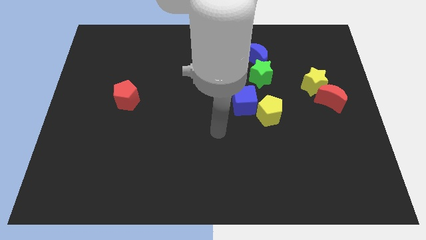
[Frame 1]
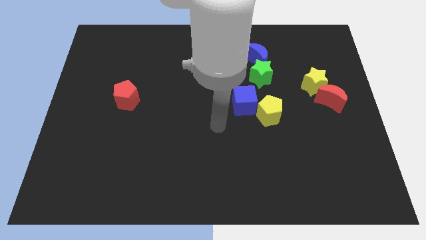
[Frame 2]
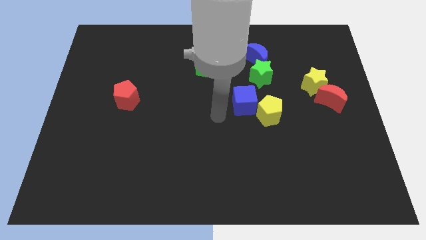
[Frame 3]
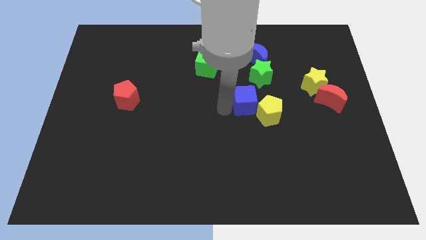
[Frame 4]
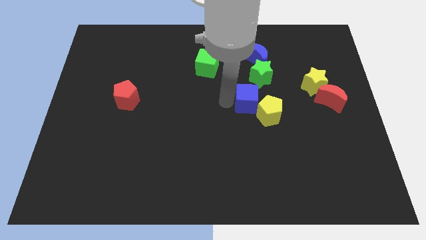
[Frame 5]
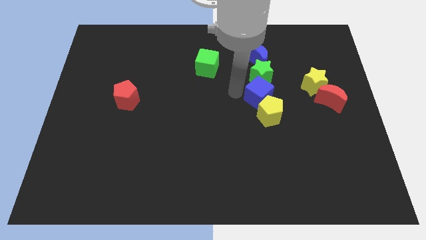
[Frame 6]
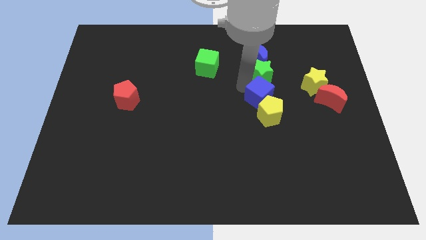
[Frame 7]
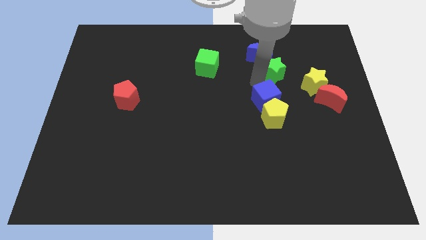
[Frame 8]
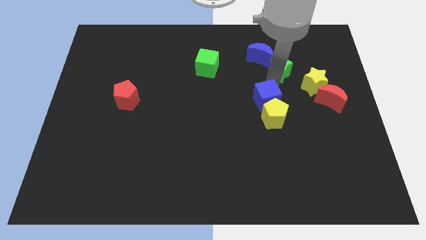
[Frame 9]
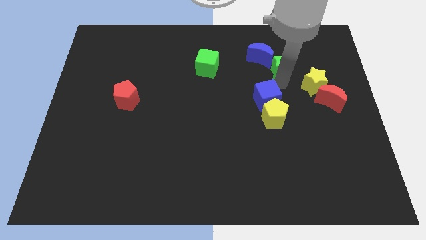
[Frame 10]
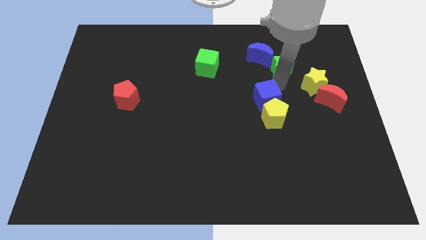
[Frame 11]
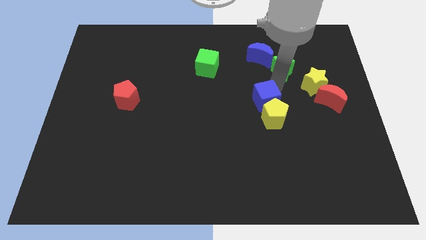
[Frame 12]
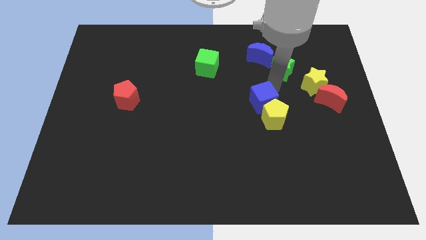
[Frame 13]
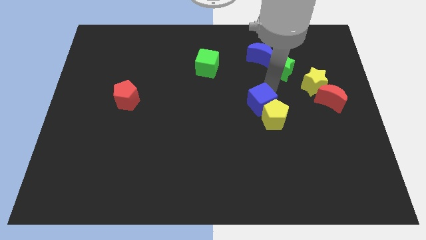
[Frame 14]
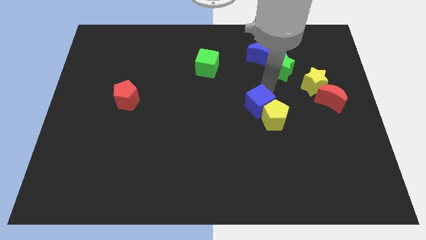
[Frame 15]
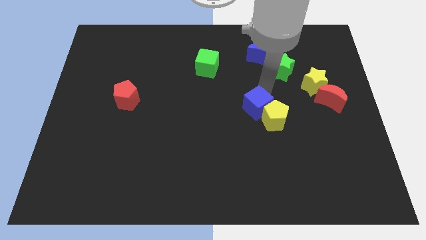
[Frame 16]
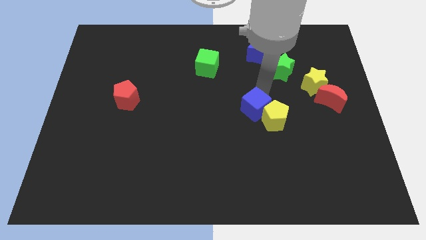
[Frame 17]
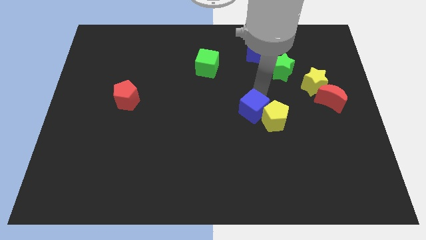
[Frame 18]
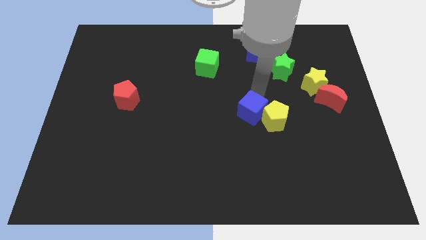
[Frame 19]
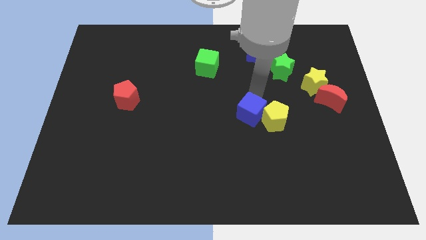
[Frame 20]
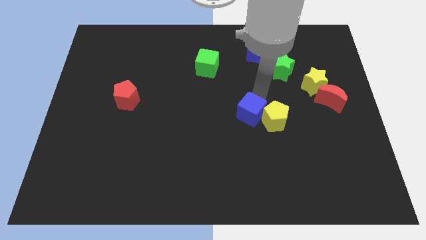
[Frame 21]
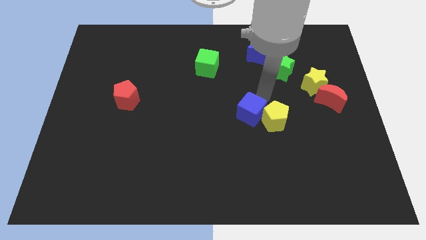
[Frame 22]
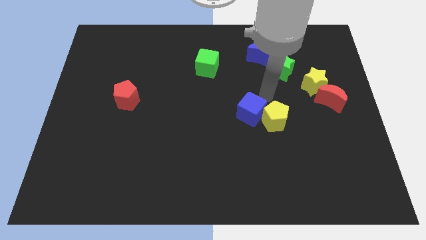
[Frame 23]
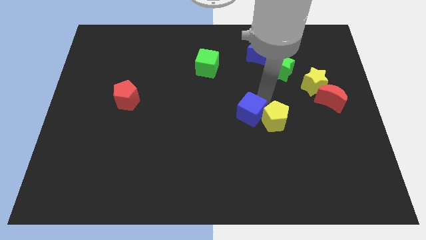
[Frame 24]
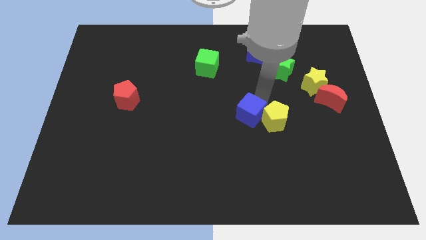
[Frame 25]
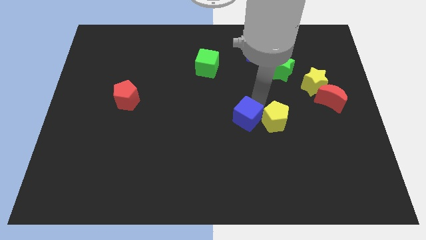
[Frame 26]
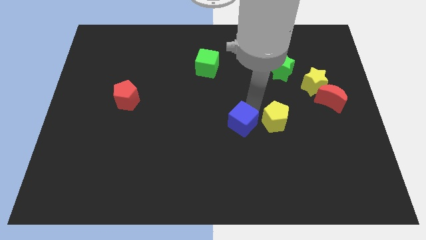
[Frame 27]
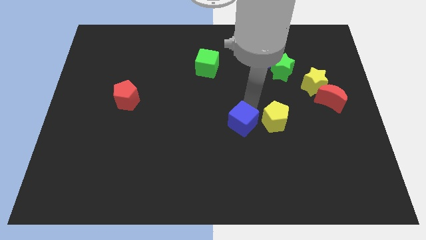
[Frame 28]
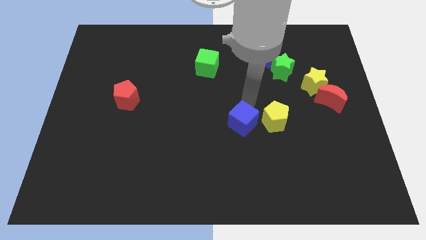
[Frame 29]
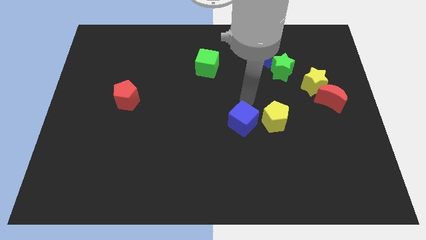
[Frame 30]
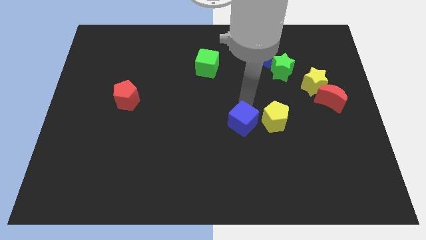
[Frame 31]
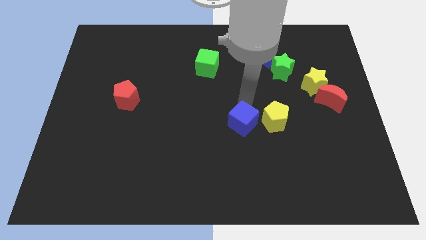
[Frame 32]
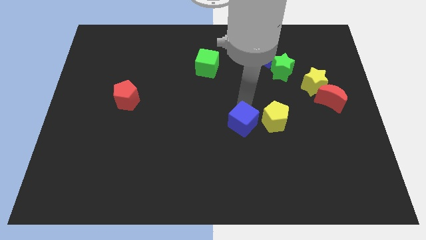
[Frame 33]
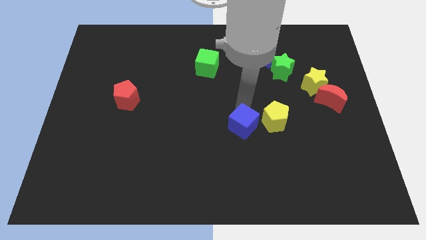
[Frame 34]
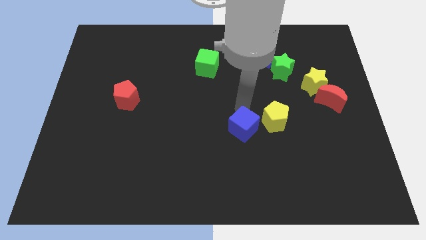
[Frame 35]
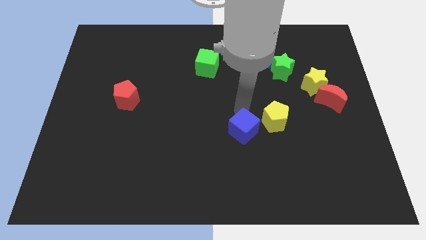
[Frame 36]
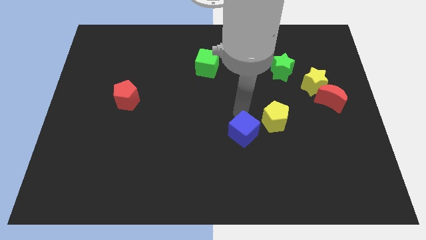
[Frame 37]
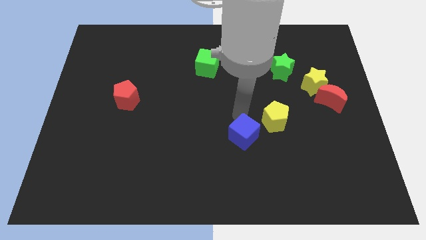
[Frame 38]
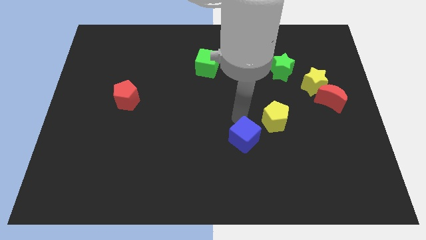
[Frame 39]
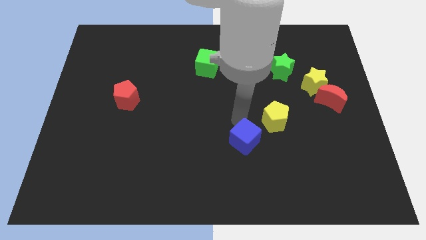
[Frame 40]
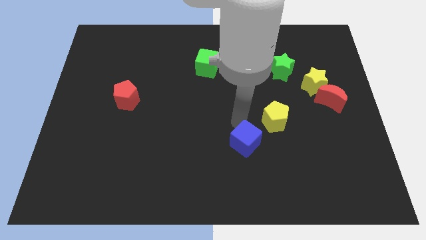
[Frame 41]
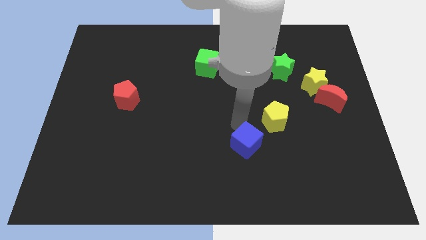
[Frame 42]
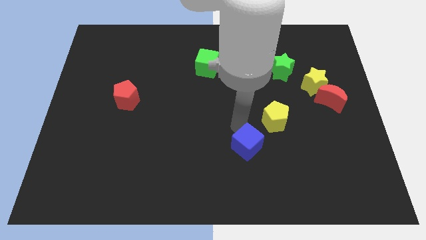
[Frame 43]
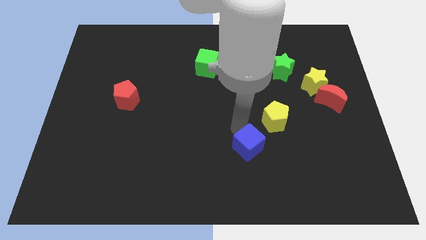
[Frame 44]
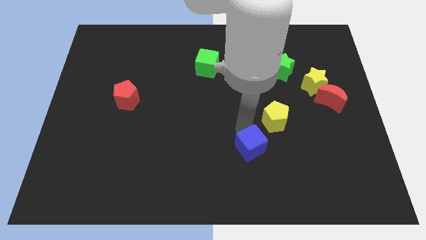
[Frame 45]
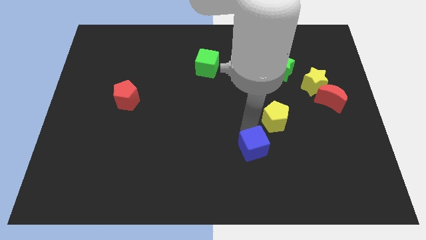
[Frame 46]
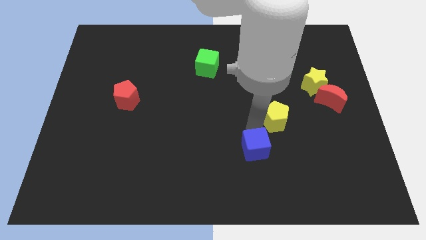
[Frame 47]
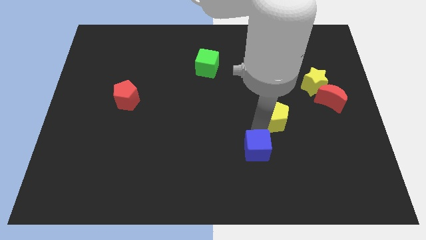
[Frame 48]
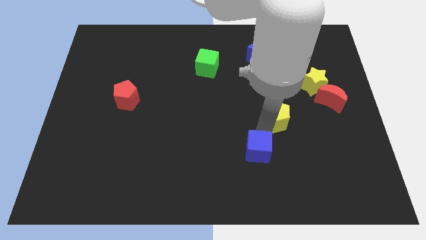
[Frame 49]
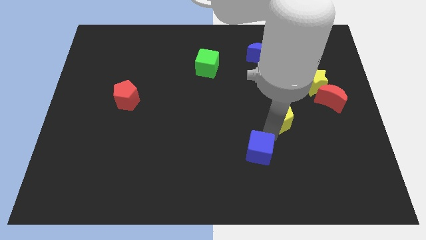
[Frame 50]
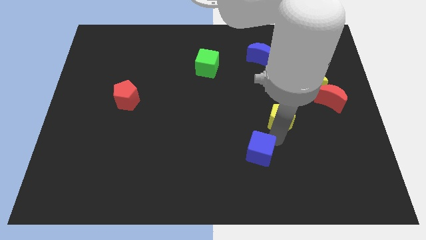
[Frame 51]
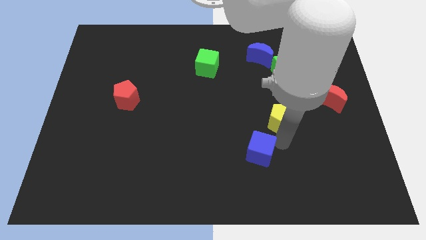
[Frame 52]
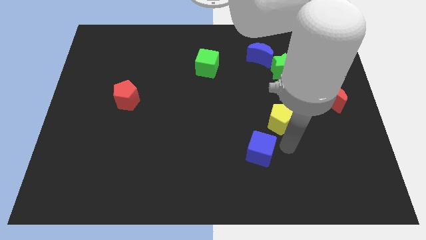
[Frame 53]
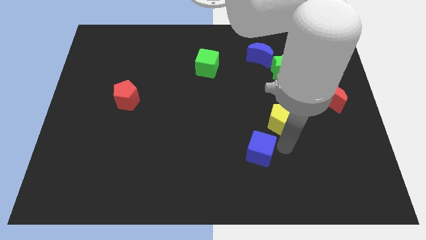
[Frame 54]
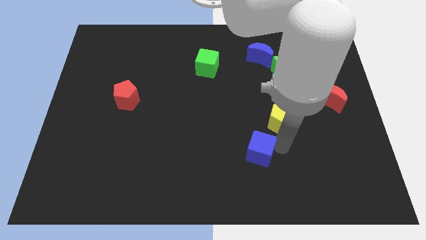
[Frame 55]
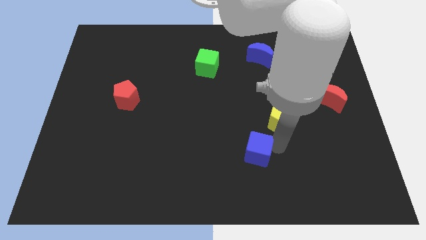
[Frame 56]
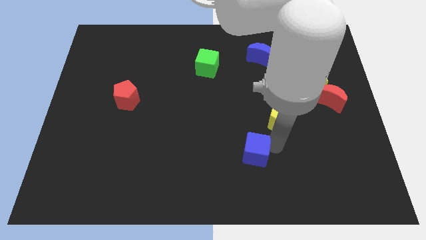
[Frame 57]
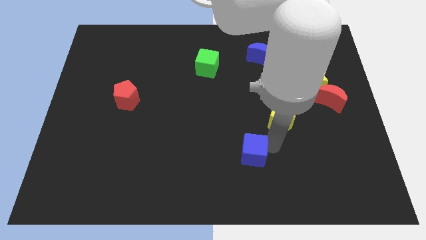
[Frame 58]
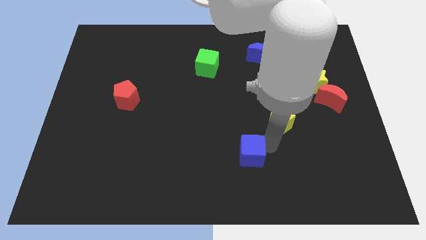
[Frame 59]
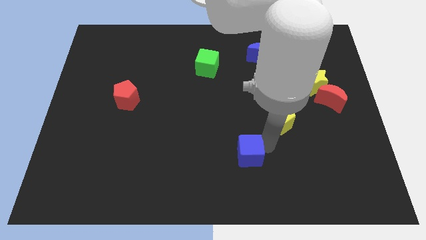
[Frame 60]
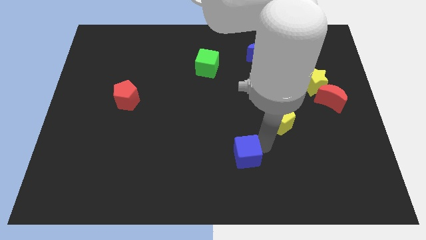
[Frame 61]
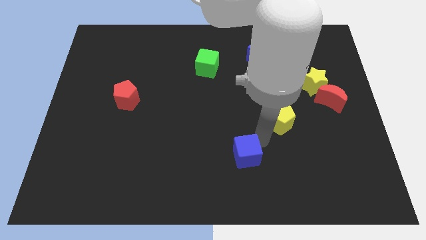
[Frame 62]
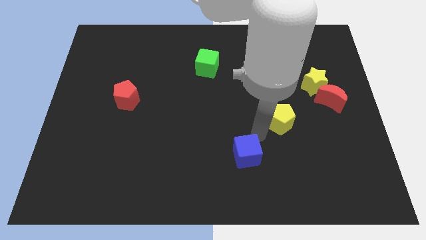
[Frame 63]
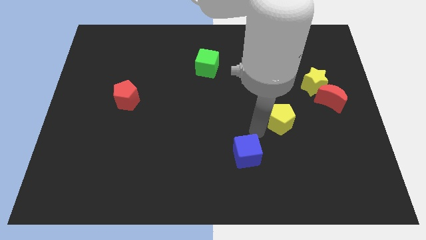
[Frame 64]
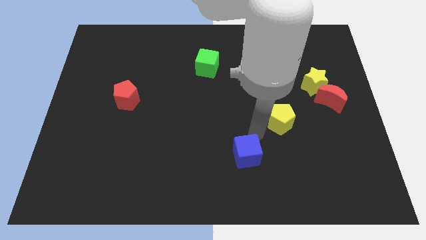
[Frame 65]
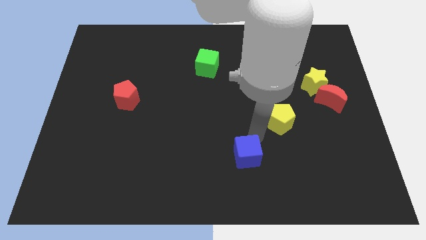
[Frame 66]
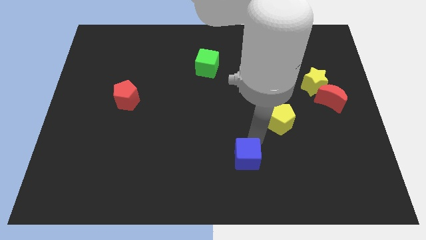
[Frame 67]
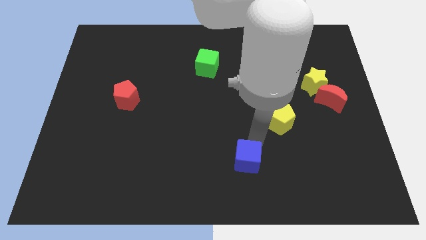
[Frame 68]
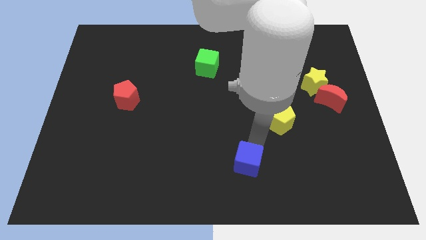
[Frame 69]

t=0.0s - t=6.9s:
put the blue cube to the bottom side
